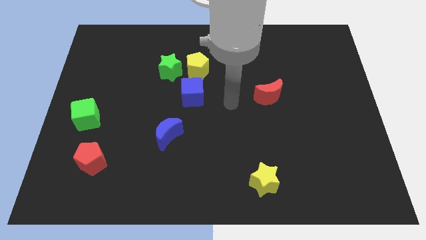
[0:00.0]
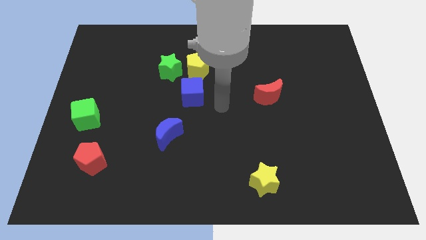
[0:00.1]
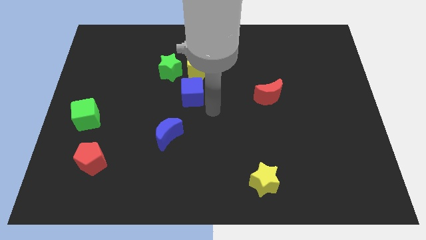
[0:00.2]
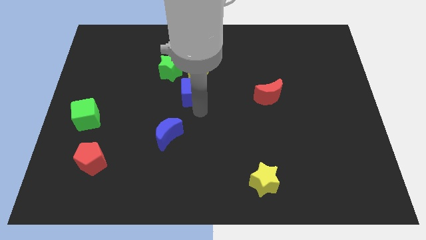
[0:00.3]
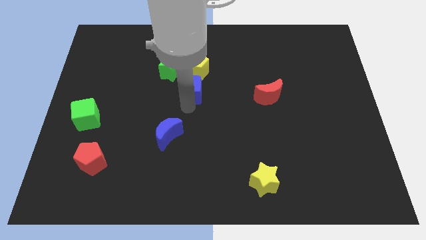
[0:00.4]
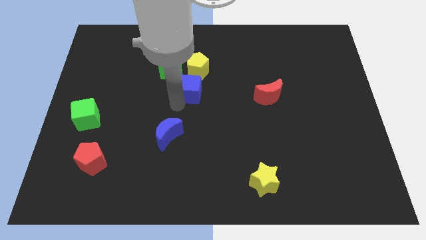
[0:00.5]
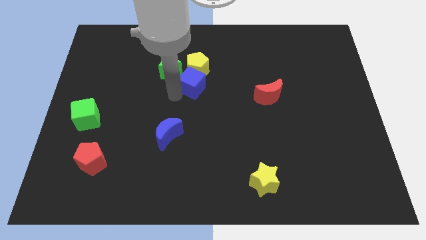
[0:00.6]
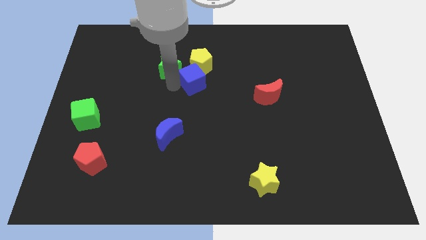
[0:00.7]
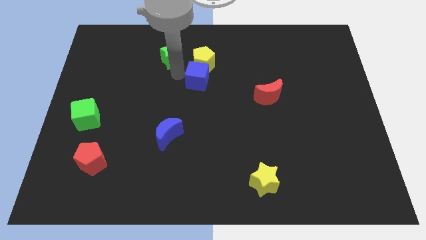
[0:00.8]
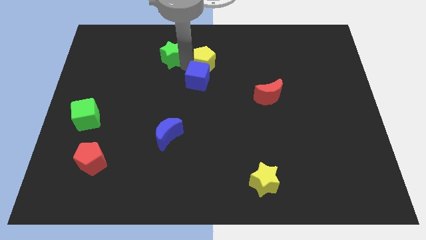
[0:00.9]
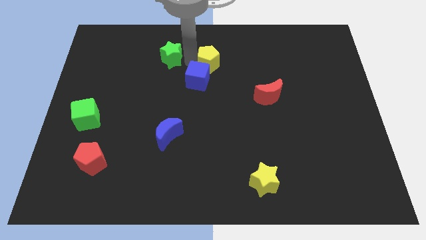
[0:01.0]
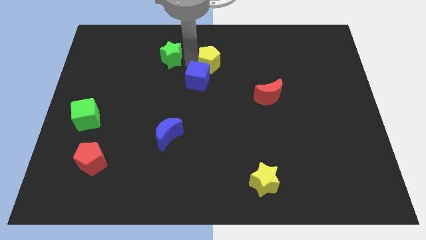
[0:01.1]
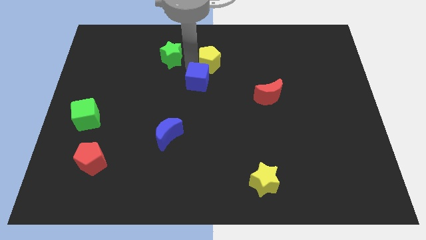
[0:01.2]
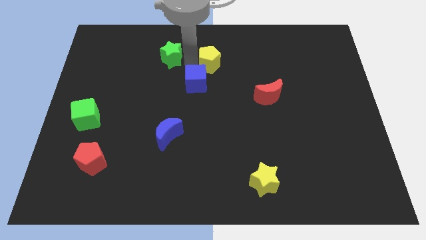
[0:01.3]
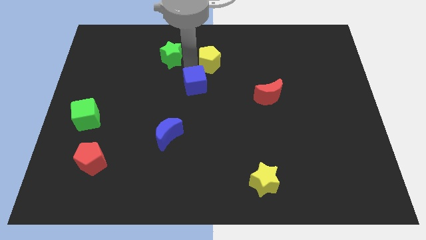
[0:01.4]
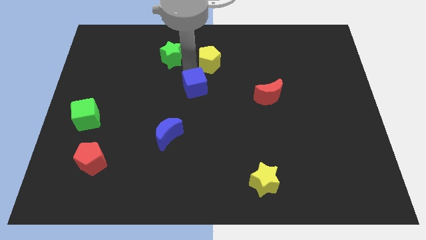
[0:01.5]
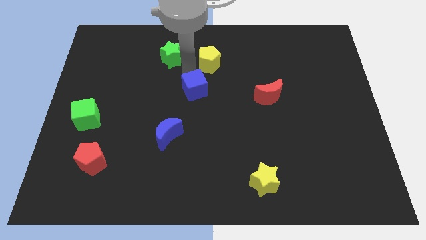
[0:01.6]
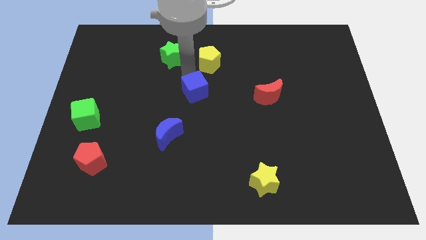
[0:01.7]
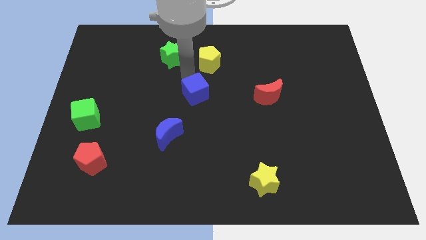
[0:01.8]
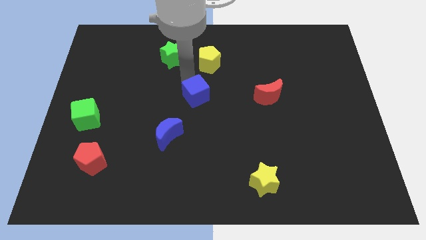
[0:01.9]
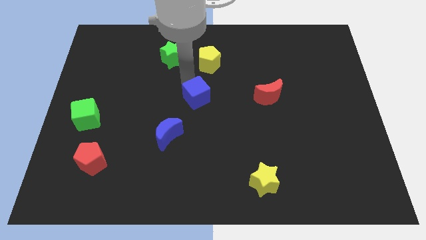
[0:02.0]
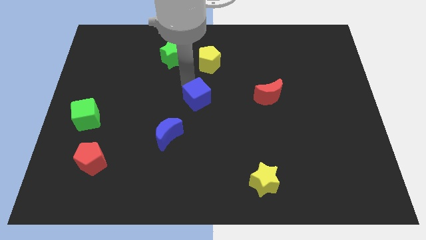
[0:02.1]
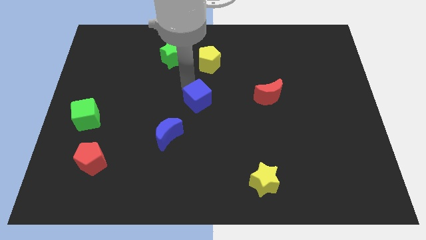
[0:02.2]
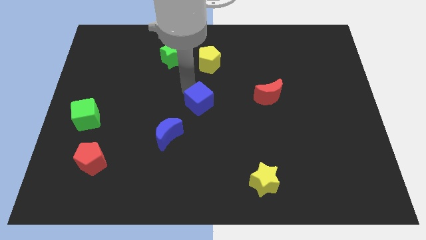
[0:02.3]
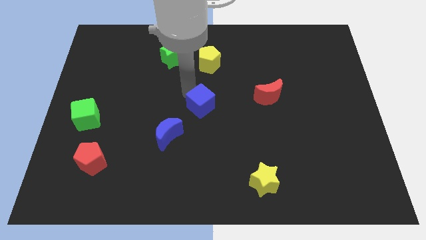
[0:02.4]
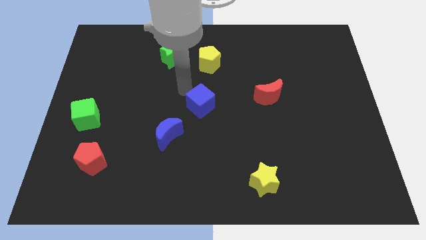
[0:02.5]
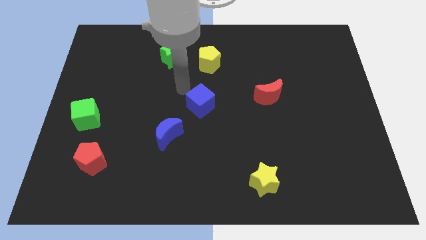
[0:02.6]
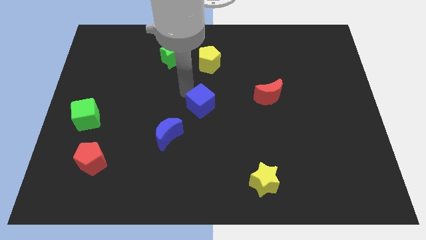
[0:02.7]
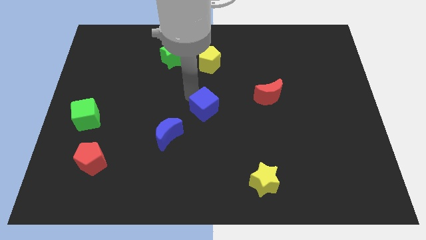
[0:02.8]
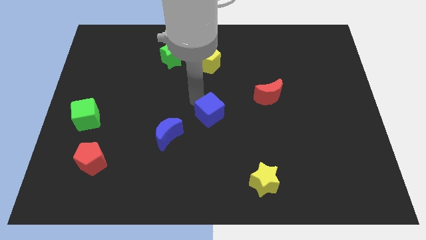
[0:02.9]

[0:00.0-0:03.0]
move the blue cube diagonally down and right a little

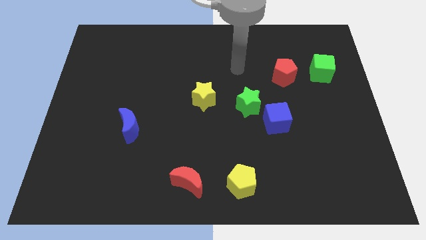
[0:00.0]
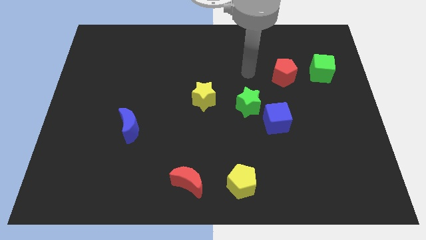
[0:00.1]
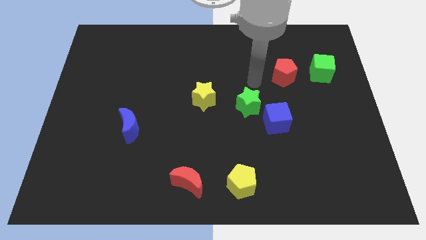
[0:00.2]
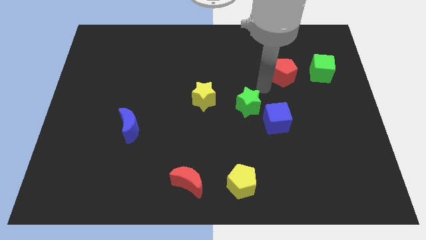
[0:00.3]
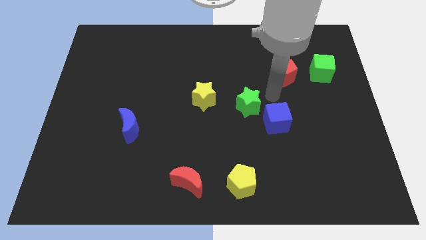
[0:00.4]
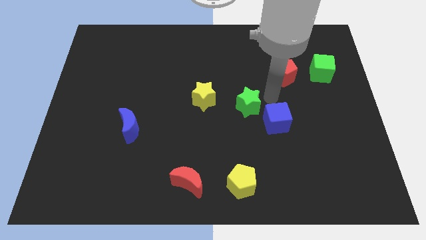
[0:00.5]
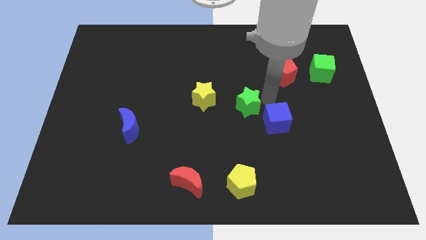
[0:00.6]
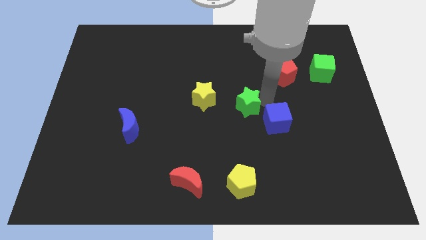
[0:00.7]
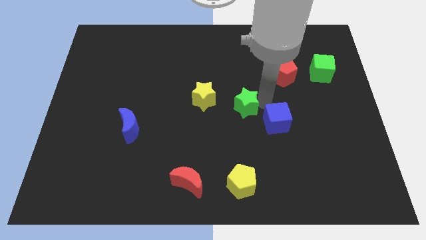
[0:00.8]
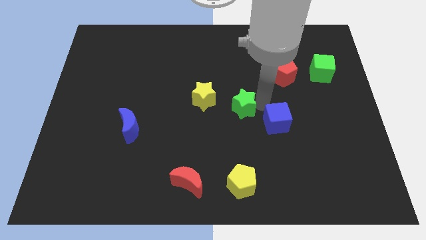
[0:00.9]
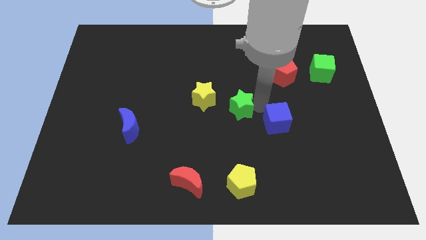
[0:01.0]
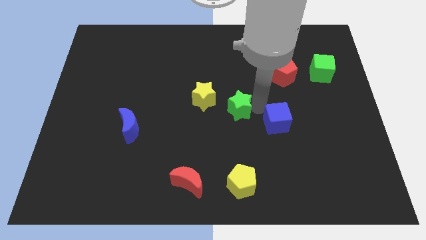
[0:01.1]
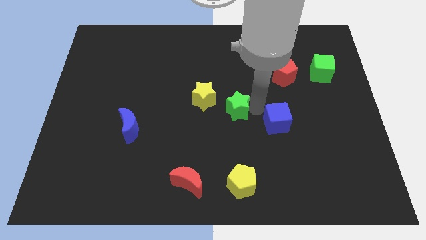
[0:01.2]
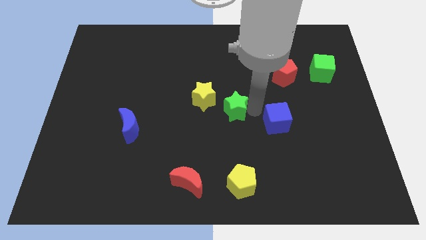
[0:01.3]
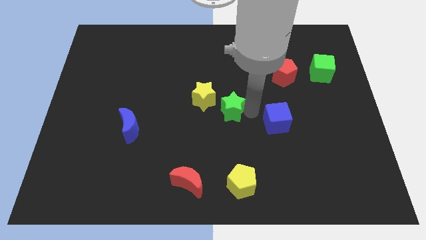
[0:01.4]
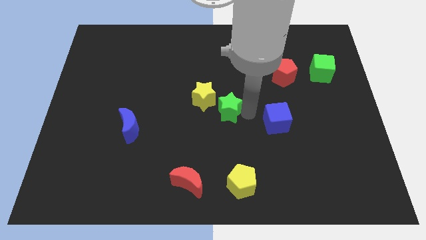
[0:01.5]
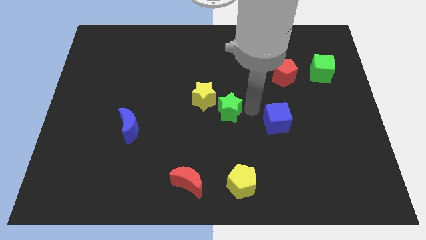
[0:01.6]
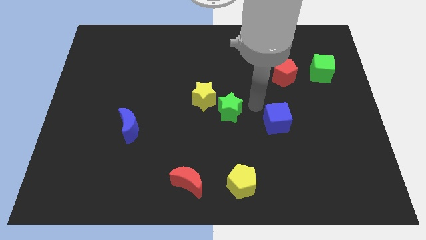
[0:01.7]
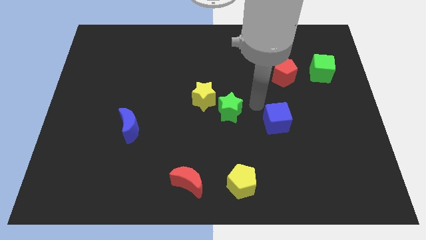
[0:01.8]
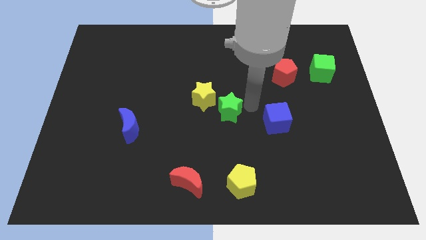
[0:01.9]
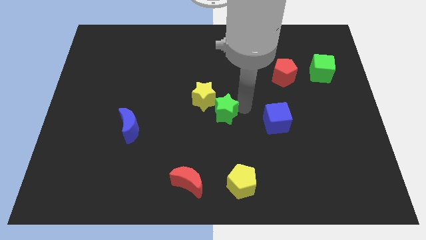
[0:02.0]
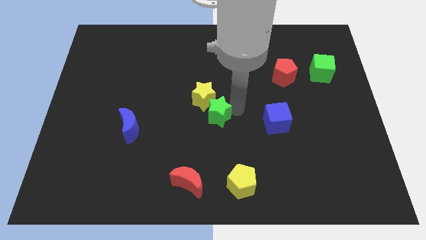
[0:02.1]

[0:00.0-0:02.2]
push the green star left a little bit

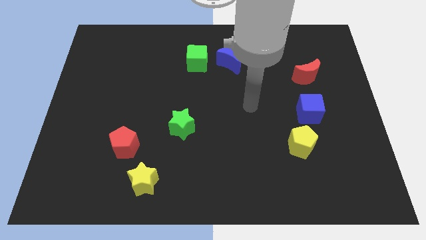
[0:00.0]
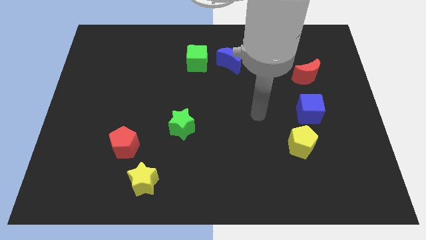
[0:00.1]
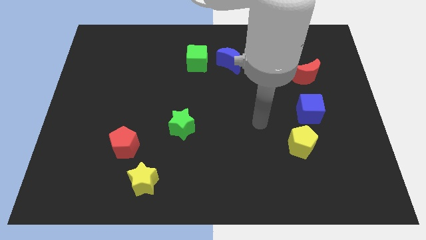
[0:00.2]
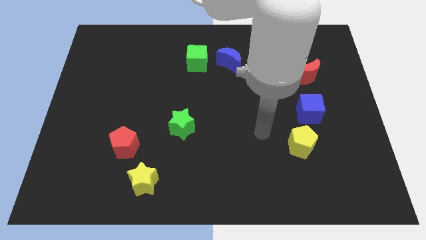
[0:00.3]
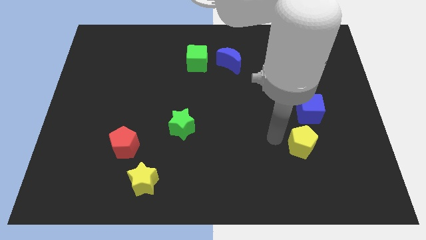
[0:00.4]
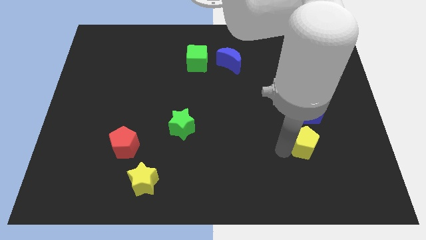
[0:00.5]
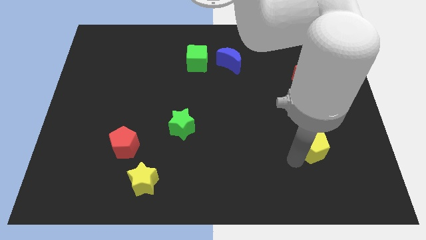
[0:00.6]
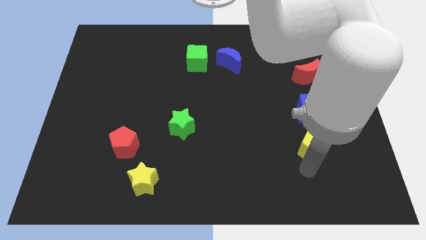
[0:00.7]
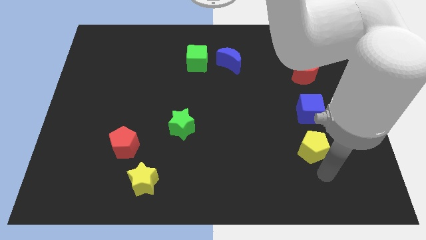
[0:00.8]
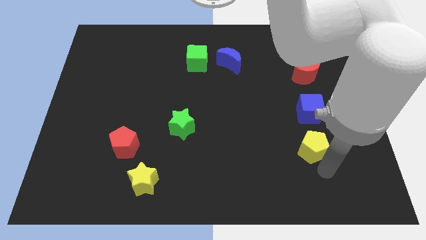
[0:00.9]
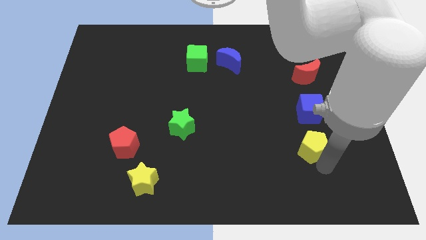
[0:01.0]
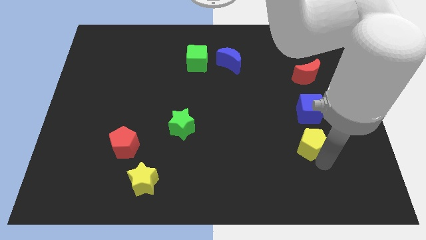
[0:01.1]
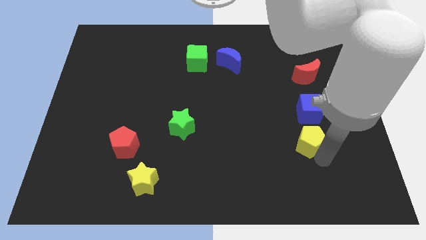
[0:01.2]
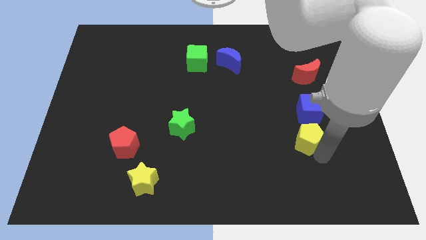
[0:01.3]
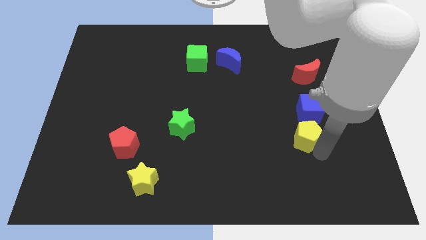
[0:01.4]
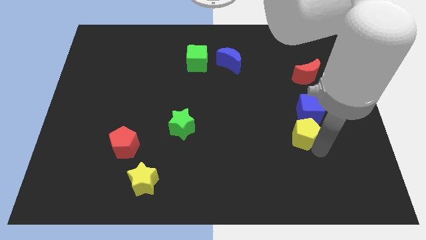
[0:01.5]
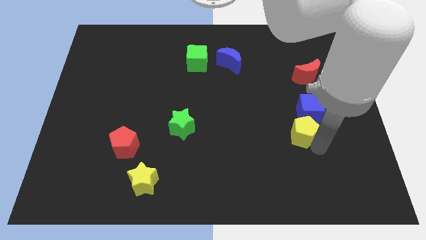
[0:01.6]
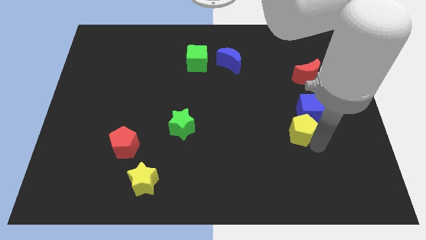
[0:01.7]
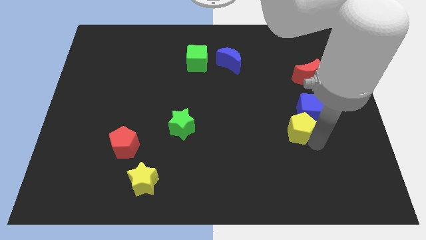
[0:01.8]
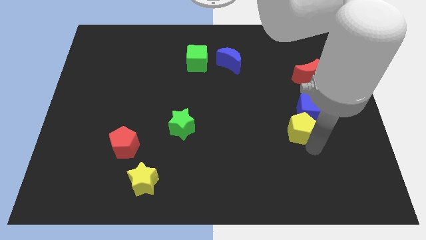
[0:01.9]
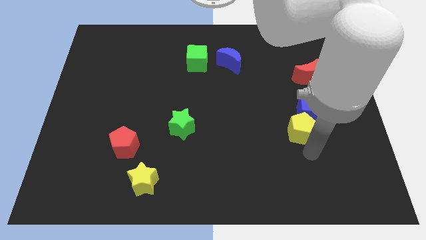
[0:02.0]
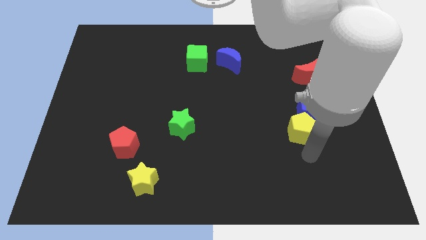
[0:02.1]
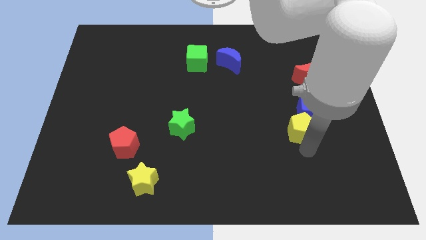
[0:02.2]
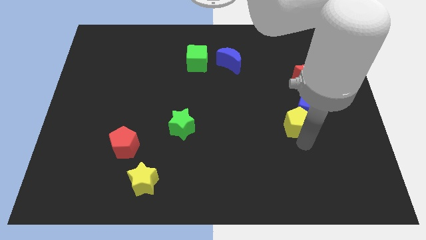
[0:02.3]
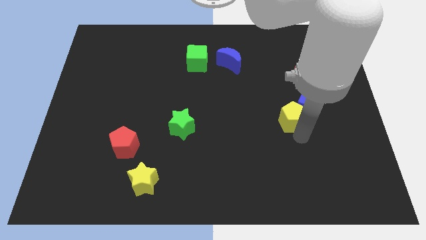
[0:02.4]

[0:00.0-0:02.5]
slightly push the yellow pentagon up

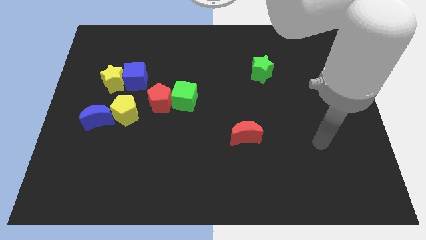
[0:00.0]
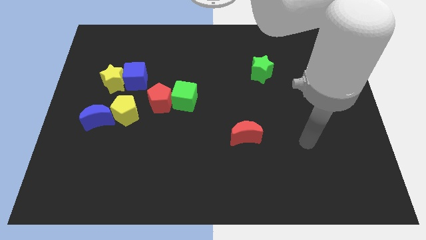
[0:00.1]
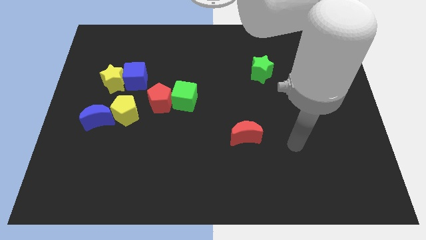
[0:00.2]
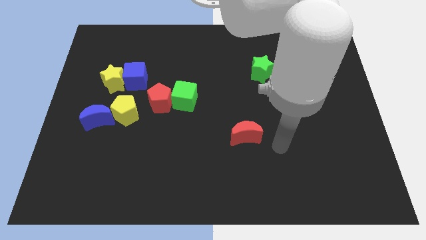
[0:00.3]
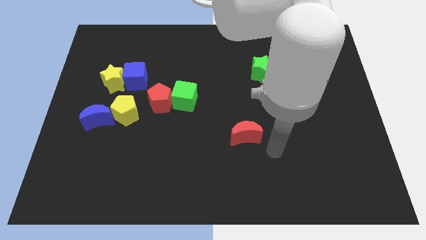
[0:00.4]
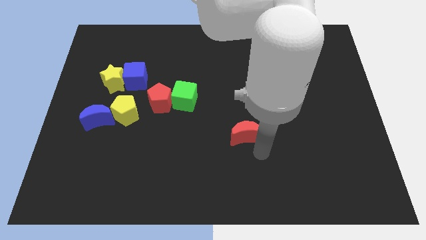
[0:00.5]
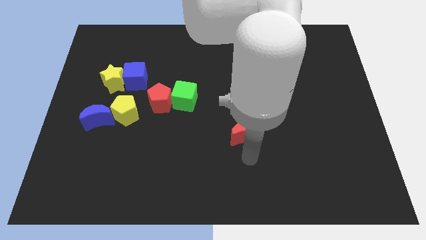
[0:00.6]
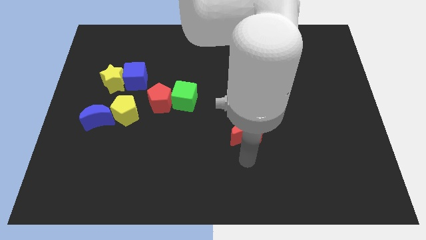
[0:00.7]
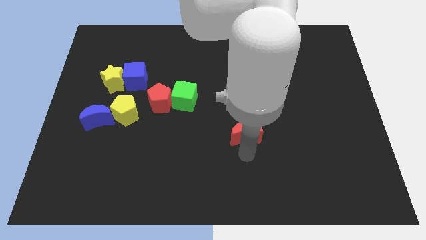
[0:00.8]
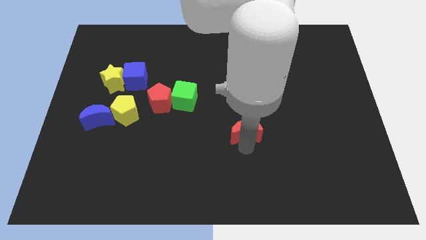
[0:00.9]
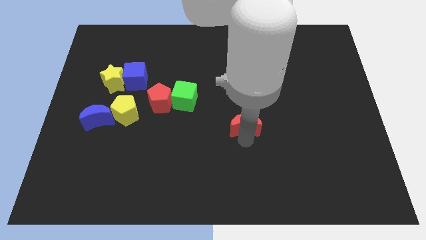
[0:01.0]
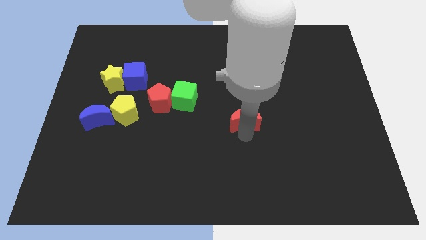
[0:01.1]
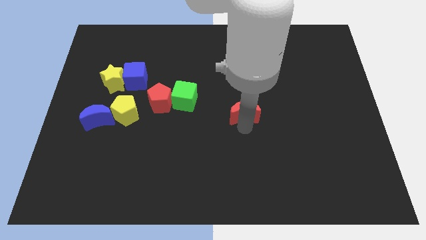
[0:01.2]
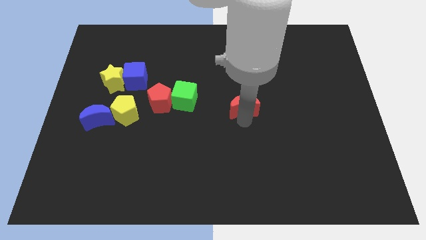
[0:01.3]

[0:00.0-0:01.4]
slightly push the red moon up
